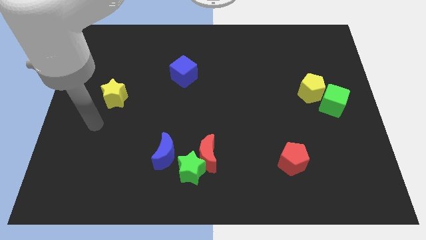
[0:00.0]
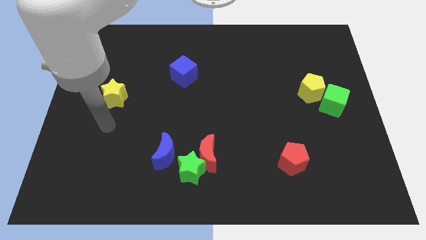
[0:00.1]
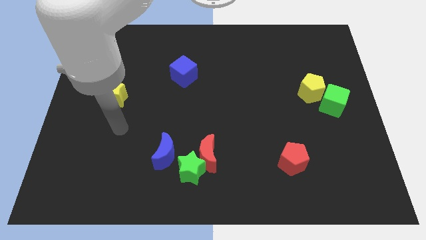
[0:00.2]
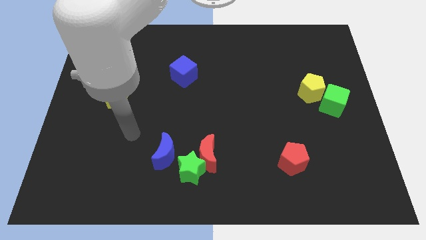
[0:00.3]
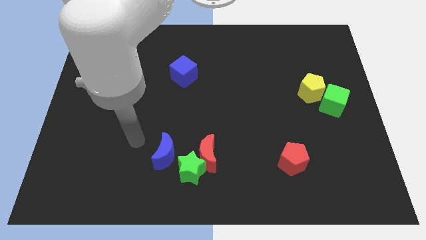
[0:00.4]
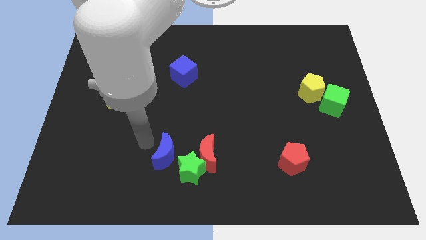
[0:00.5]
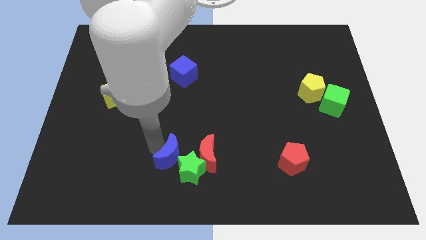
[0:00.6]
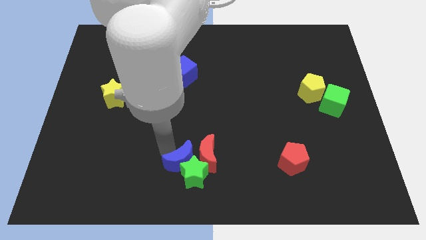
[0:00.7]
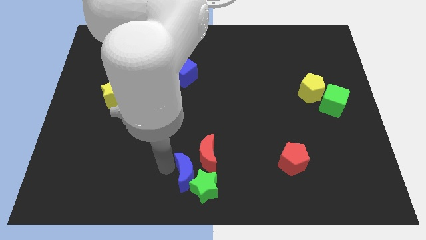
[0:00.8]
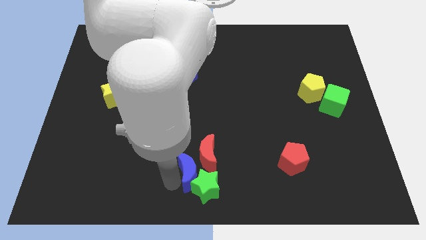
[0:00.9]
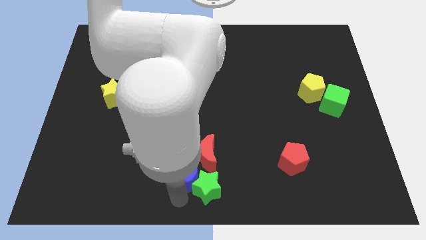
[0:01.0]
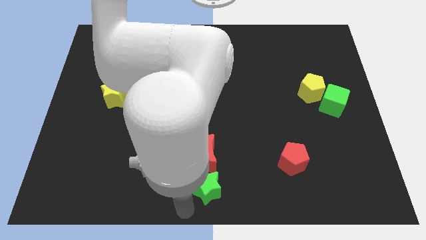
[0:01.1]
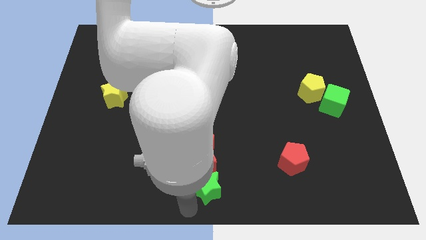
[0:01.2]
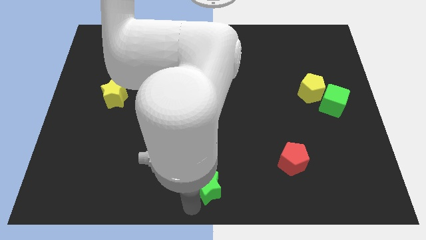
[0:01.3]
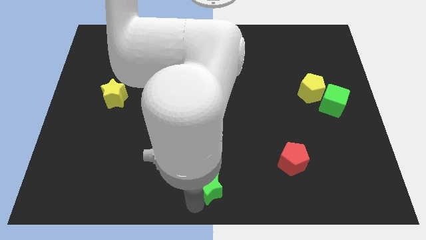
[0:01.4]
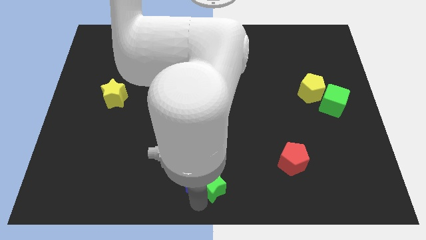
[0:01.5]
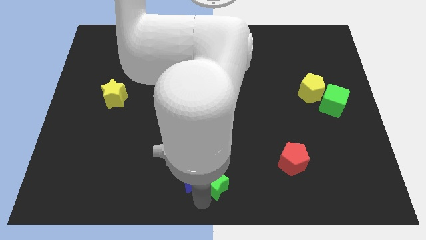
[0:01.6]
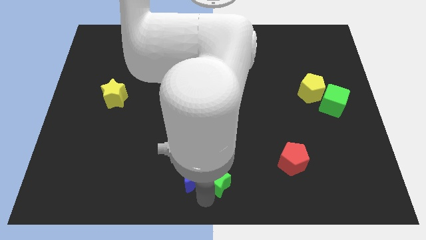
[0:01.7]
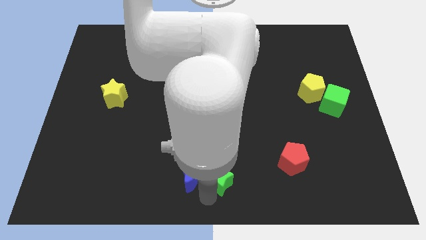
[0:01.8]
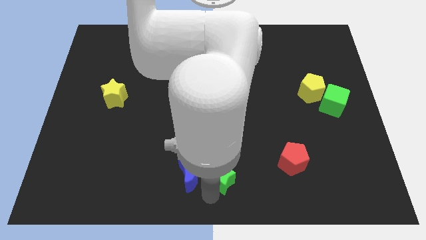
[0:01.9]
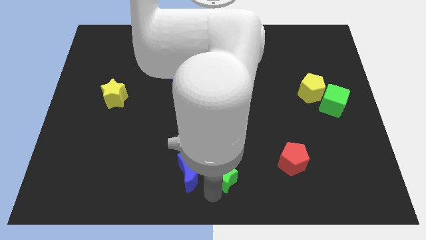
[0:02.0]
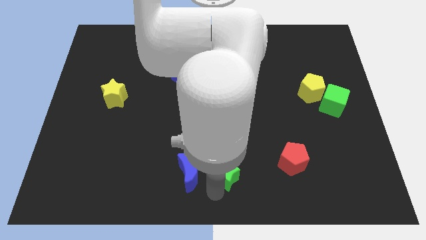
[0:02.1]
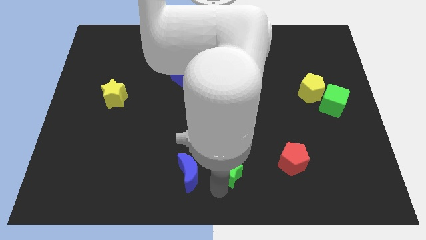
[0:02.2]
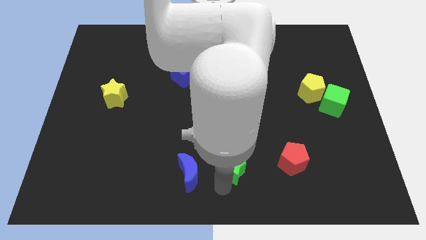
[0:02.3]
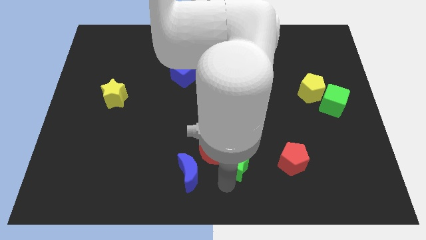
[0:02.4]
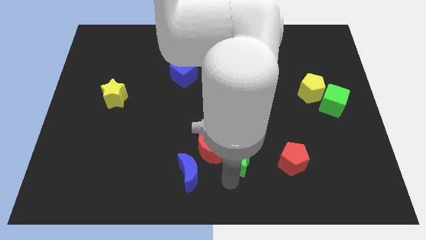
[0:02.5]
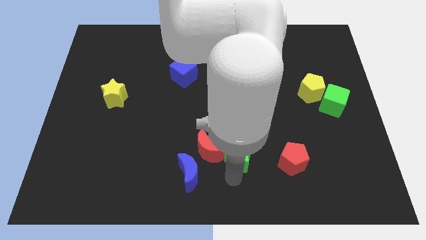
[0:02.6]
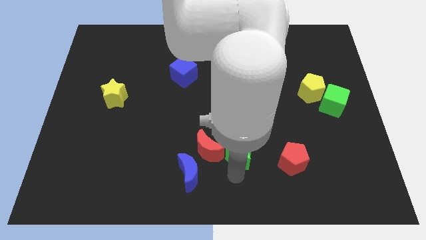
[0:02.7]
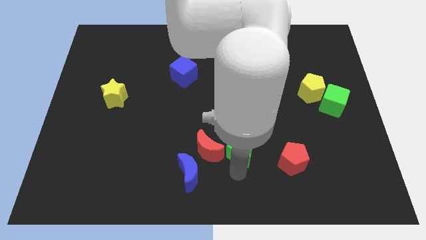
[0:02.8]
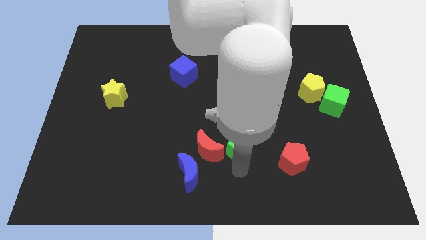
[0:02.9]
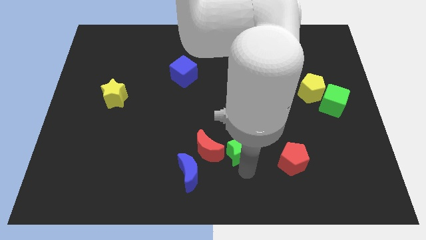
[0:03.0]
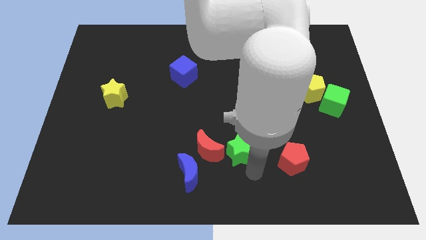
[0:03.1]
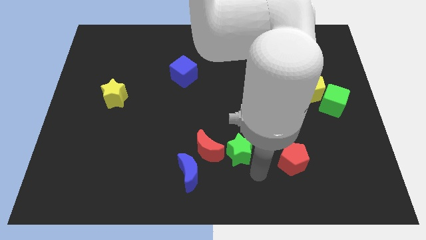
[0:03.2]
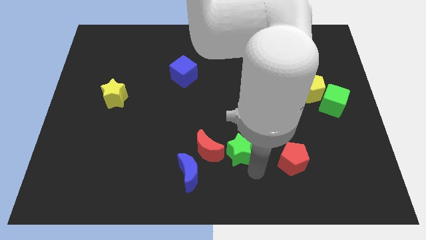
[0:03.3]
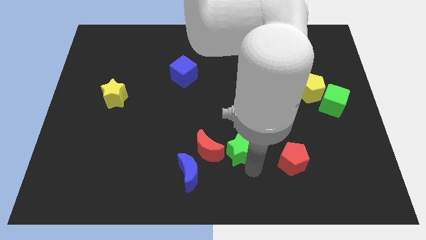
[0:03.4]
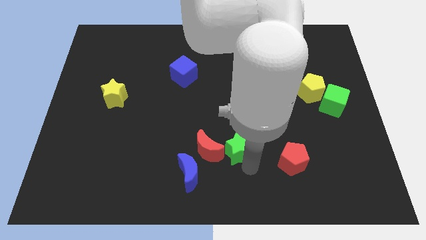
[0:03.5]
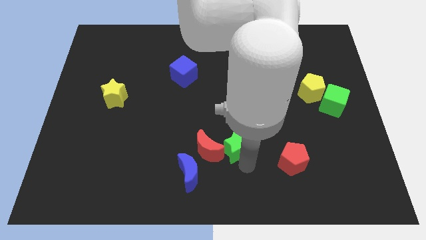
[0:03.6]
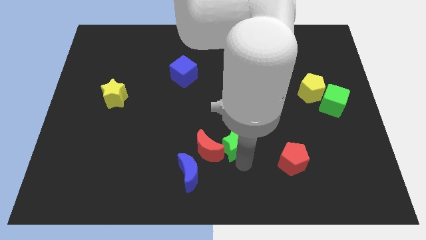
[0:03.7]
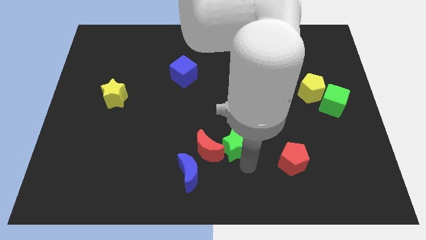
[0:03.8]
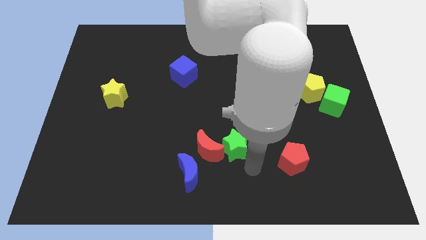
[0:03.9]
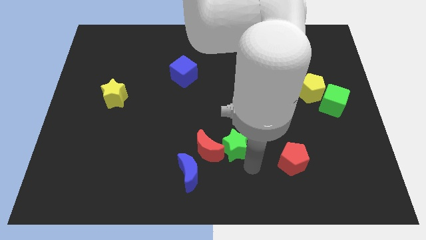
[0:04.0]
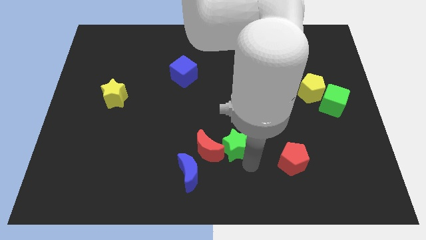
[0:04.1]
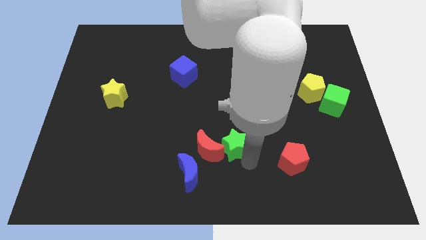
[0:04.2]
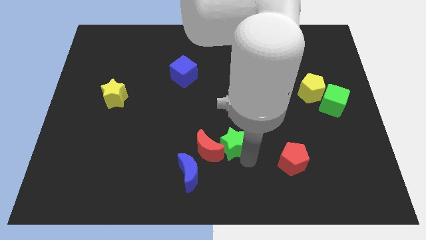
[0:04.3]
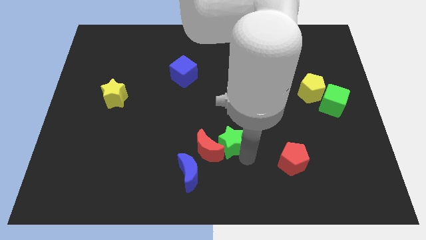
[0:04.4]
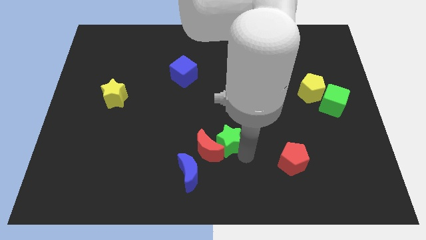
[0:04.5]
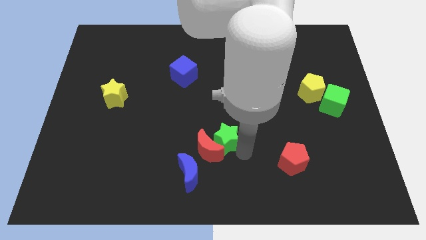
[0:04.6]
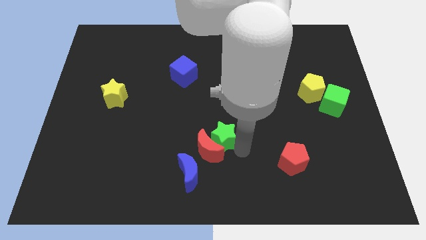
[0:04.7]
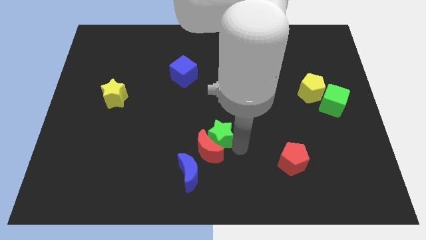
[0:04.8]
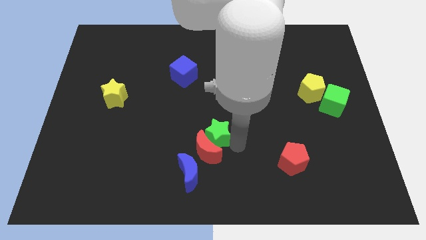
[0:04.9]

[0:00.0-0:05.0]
push the green star a bit upwards

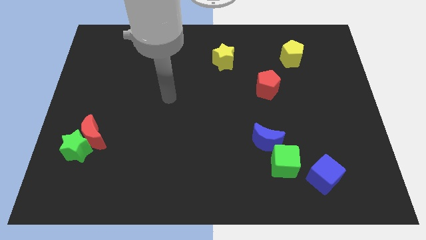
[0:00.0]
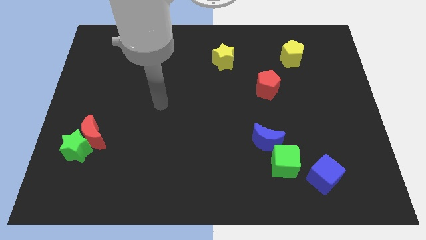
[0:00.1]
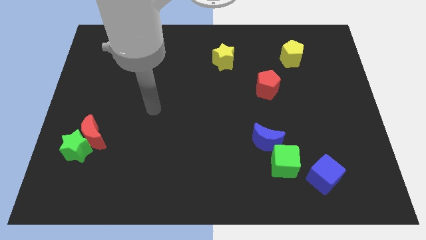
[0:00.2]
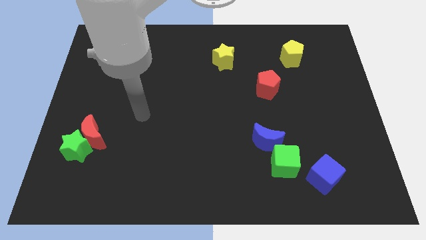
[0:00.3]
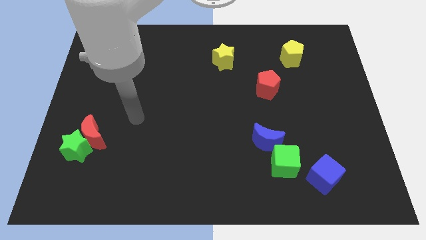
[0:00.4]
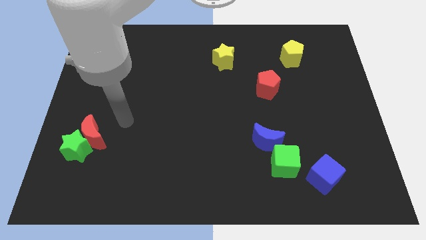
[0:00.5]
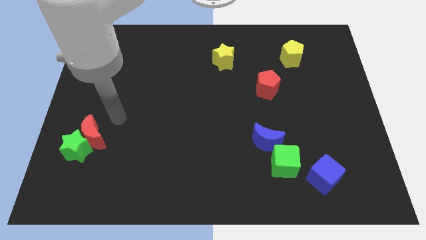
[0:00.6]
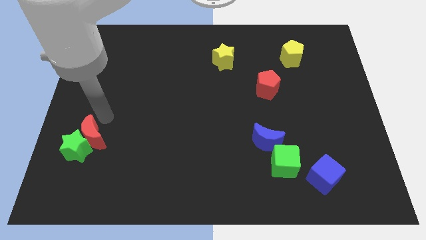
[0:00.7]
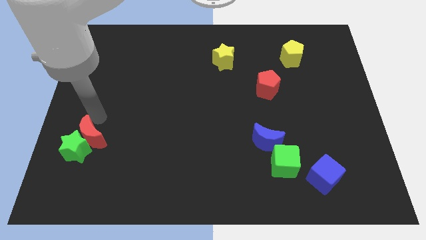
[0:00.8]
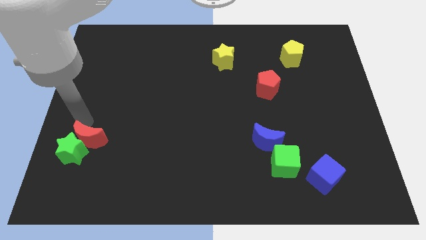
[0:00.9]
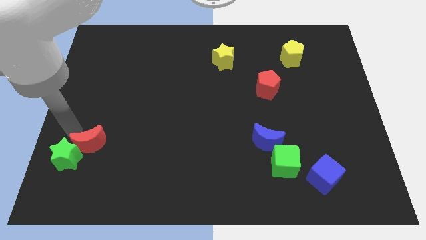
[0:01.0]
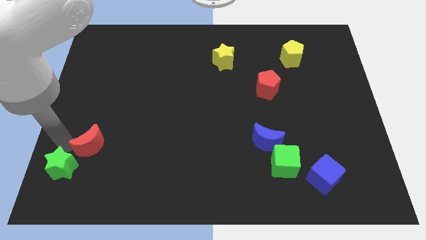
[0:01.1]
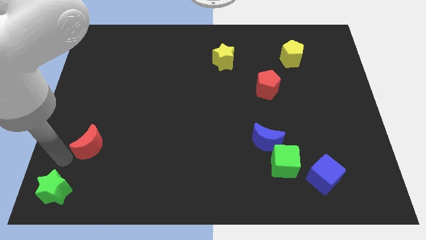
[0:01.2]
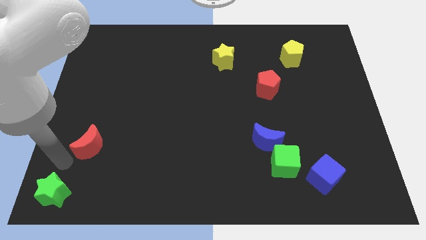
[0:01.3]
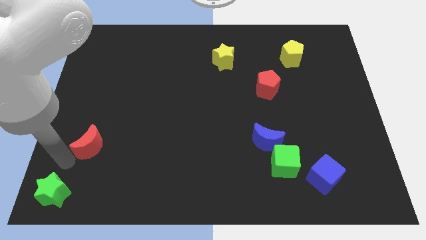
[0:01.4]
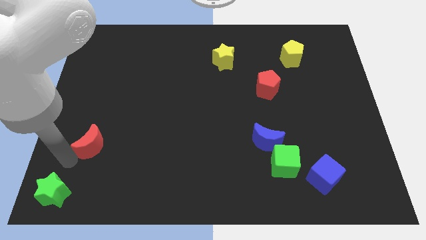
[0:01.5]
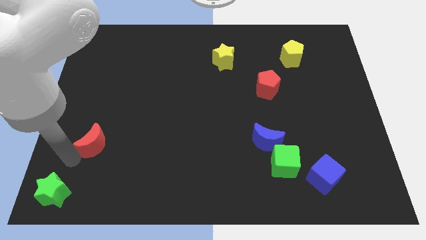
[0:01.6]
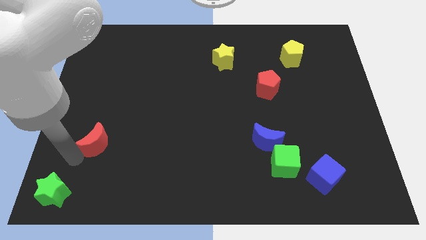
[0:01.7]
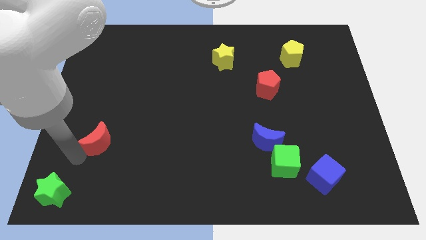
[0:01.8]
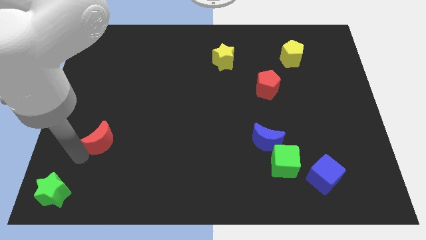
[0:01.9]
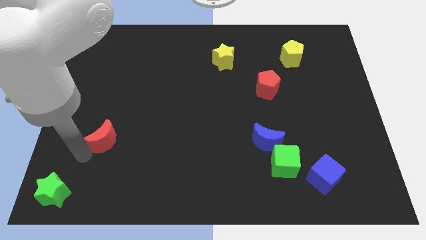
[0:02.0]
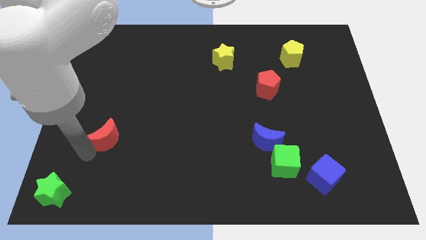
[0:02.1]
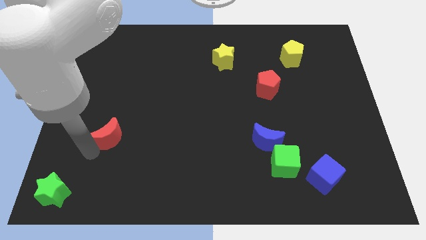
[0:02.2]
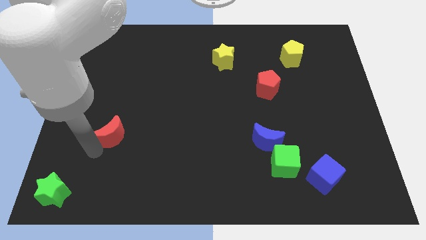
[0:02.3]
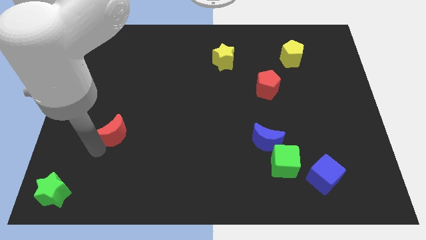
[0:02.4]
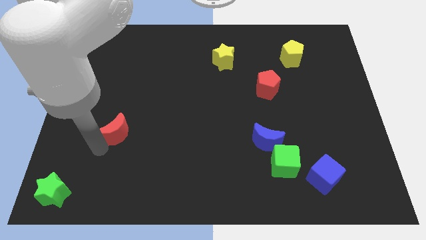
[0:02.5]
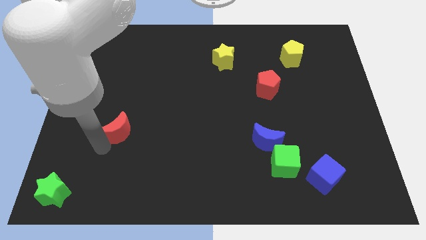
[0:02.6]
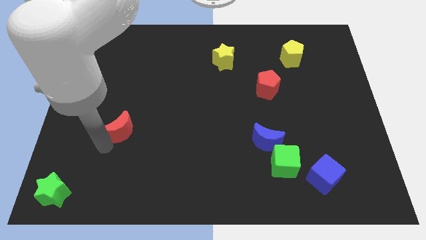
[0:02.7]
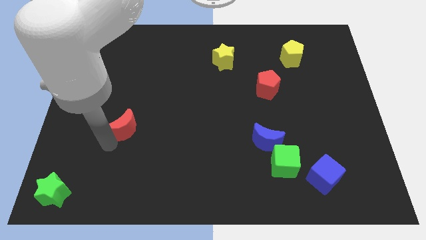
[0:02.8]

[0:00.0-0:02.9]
slightly slide the red moon to the right

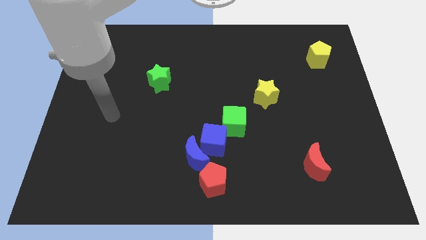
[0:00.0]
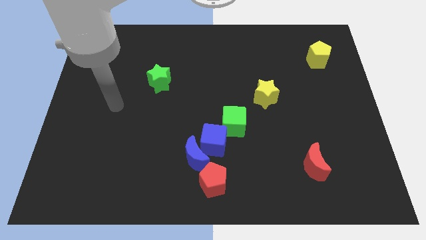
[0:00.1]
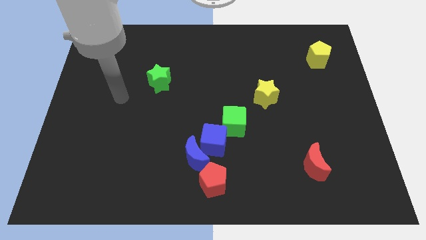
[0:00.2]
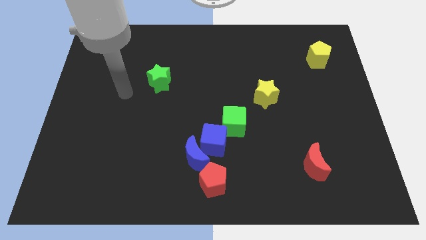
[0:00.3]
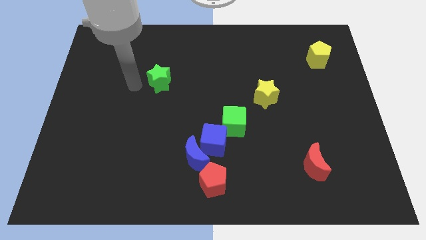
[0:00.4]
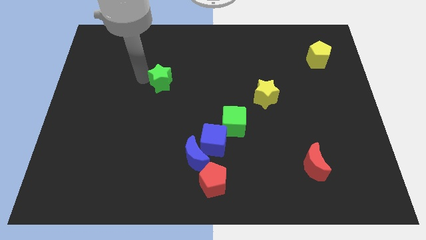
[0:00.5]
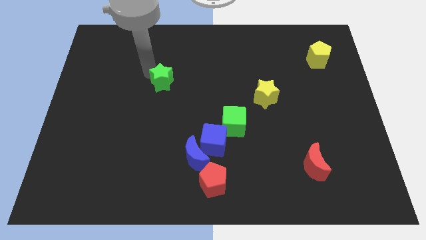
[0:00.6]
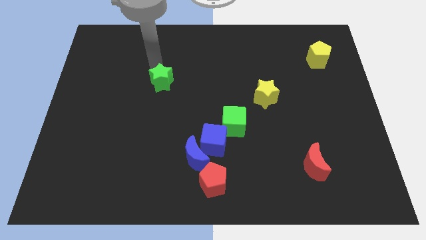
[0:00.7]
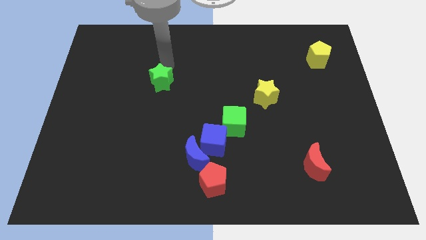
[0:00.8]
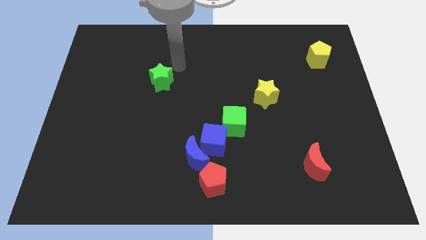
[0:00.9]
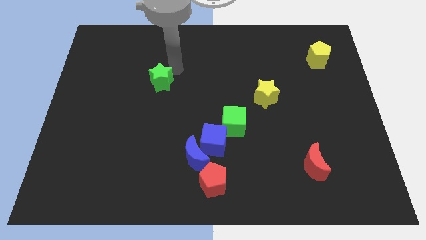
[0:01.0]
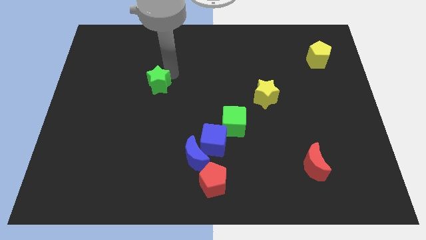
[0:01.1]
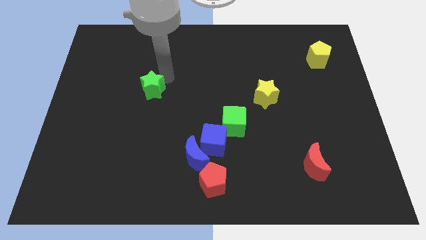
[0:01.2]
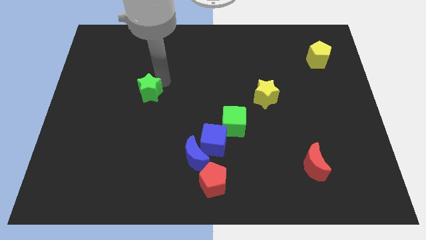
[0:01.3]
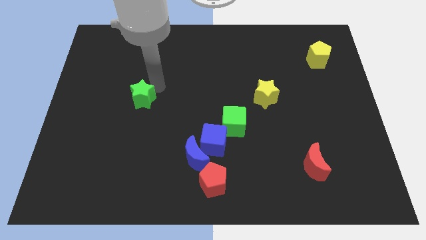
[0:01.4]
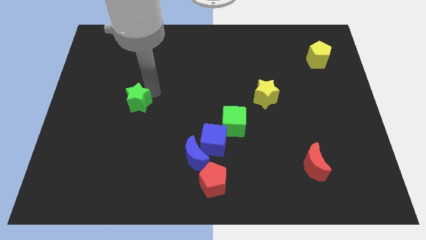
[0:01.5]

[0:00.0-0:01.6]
push the green star down and to the left a bit
